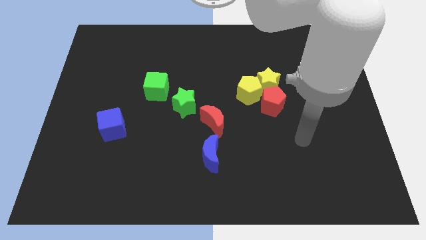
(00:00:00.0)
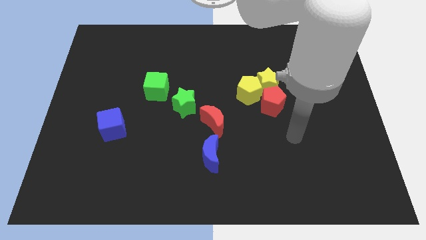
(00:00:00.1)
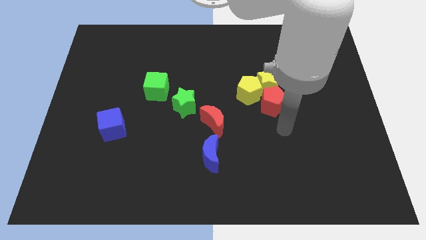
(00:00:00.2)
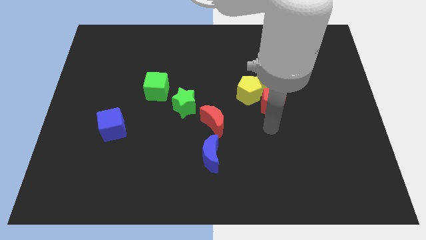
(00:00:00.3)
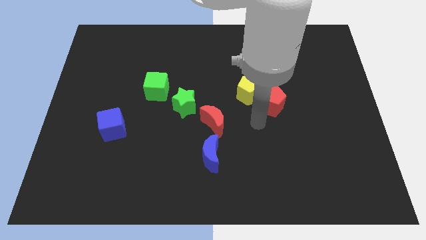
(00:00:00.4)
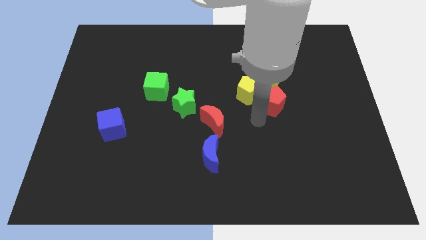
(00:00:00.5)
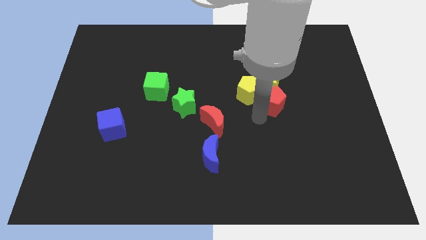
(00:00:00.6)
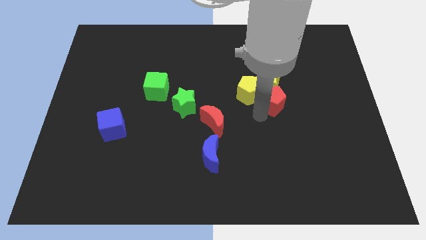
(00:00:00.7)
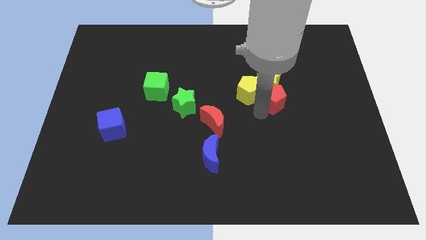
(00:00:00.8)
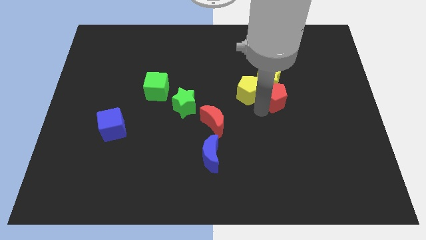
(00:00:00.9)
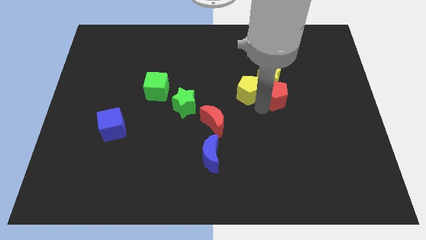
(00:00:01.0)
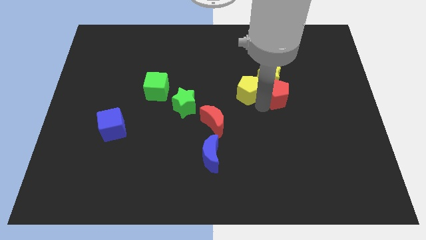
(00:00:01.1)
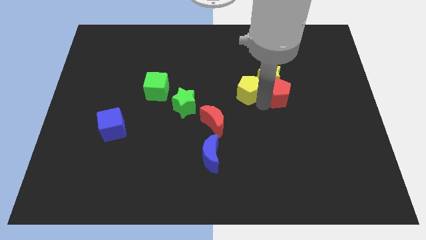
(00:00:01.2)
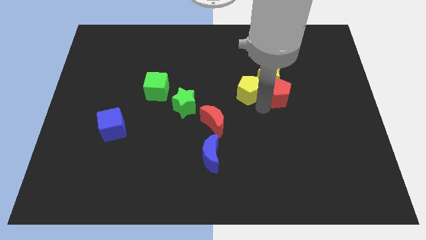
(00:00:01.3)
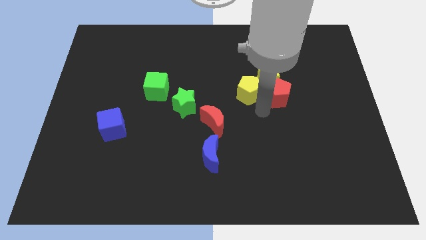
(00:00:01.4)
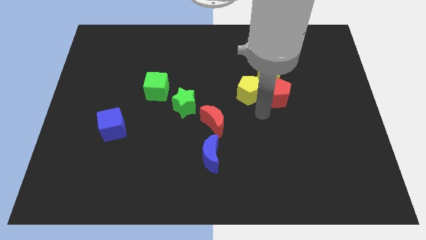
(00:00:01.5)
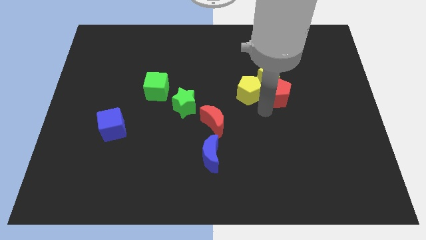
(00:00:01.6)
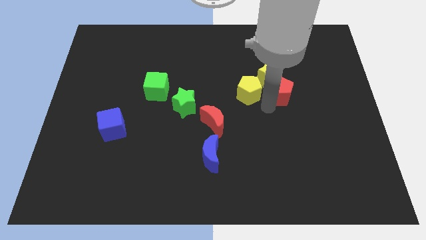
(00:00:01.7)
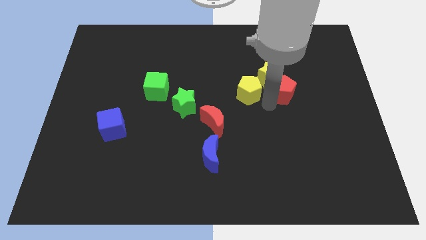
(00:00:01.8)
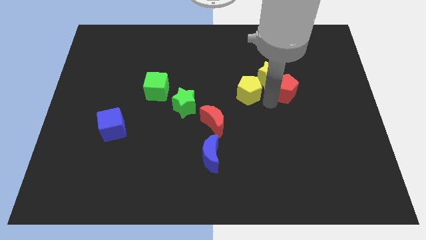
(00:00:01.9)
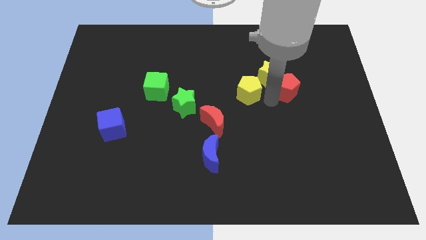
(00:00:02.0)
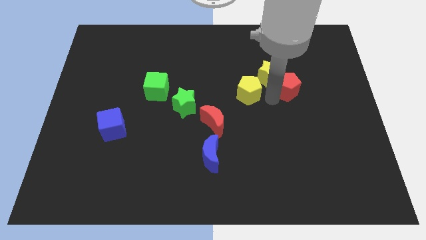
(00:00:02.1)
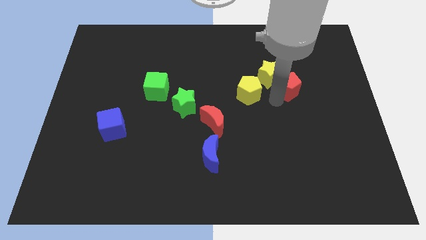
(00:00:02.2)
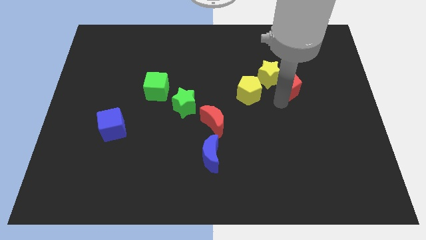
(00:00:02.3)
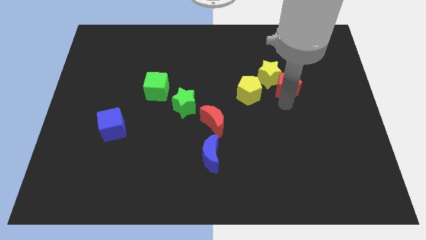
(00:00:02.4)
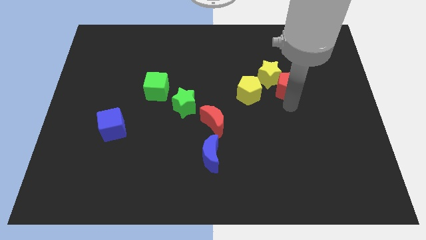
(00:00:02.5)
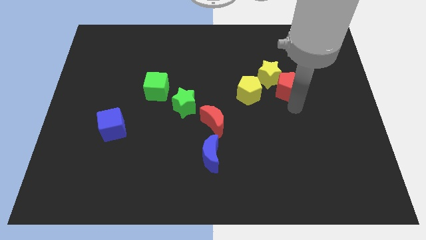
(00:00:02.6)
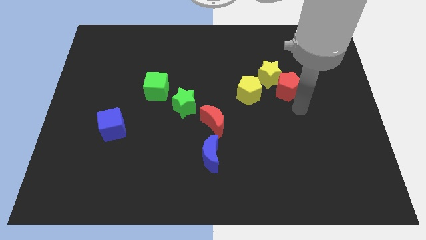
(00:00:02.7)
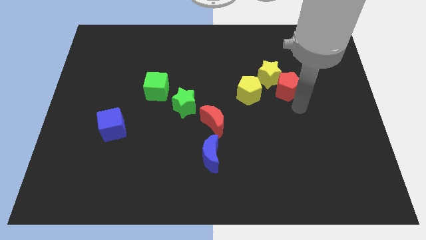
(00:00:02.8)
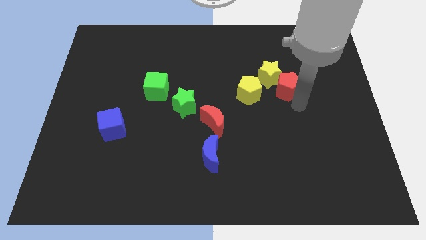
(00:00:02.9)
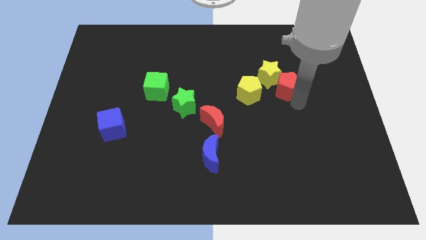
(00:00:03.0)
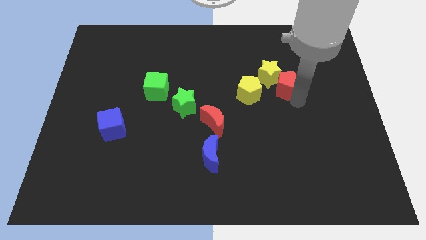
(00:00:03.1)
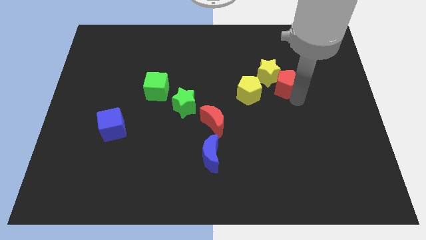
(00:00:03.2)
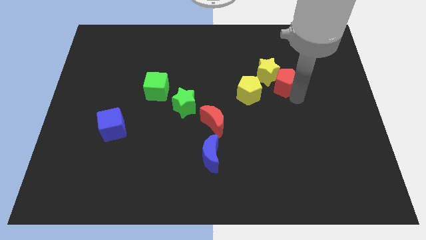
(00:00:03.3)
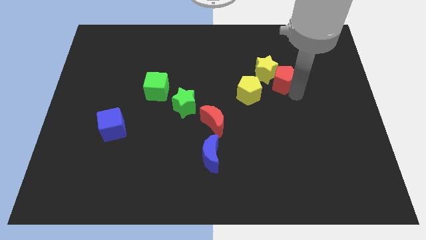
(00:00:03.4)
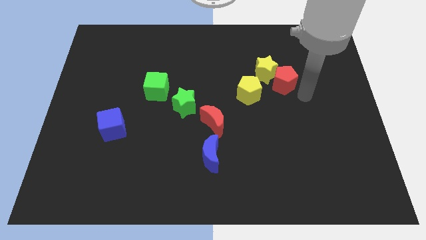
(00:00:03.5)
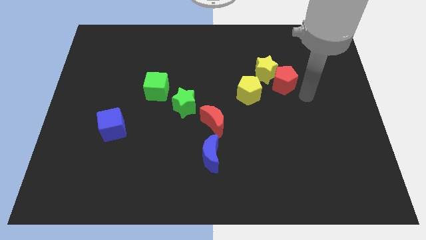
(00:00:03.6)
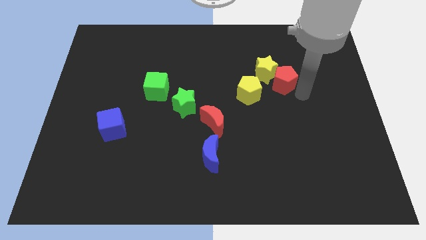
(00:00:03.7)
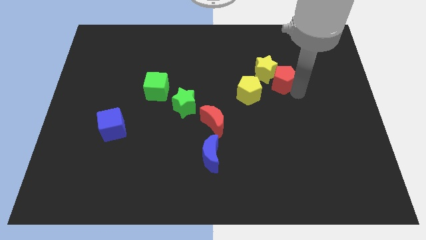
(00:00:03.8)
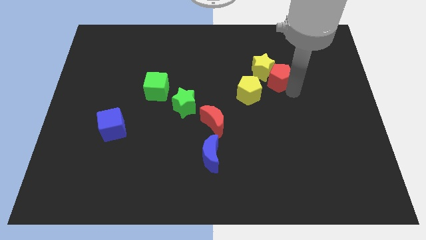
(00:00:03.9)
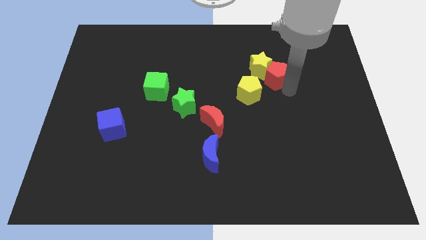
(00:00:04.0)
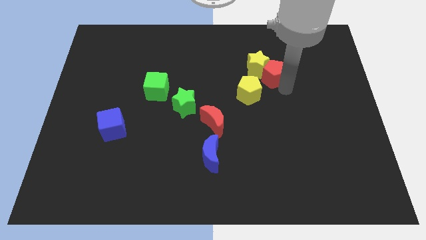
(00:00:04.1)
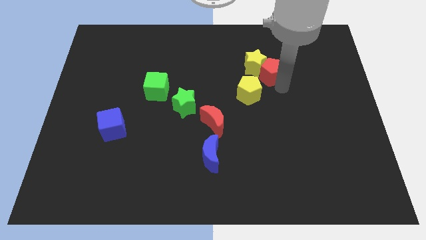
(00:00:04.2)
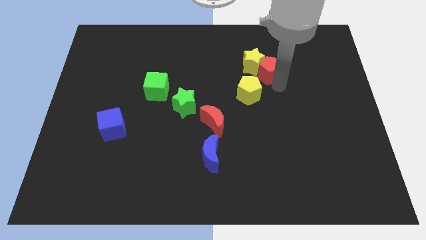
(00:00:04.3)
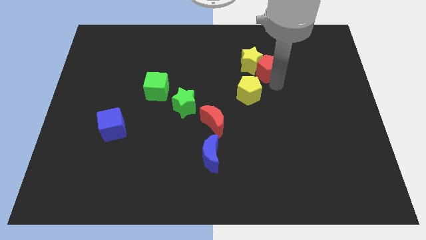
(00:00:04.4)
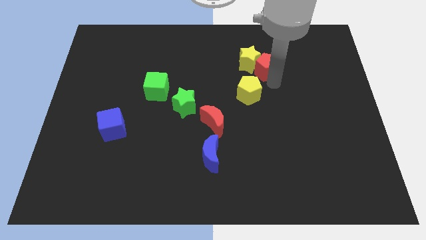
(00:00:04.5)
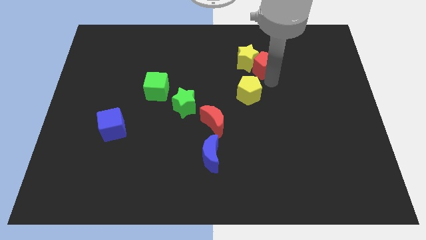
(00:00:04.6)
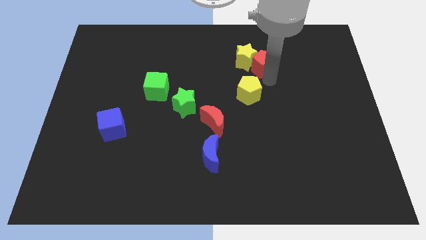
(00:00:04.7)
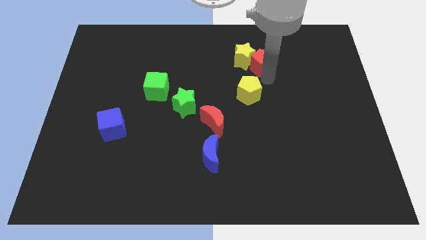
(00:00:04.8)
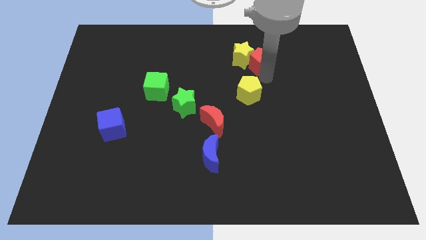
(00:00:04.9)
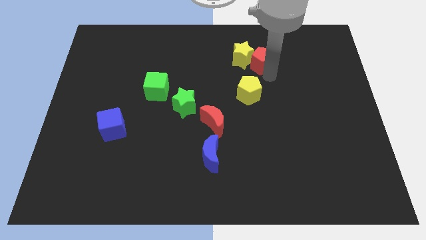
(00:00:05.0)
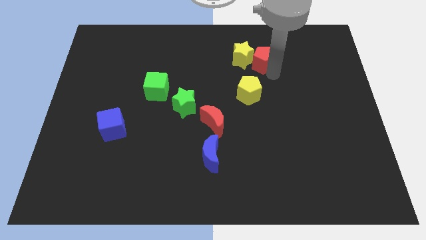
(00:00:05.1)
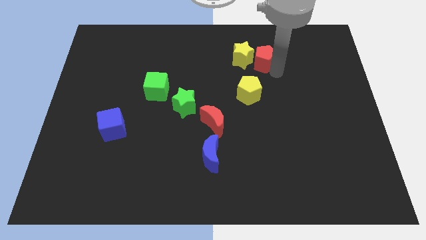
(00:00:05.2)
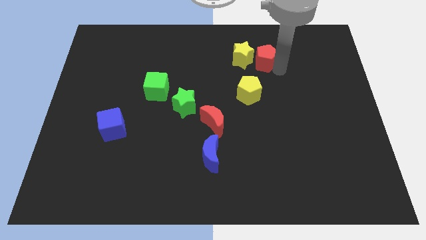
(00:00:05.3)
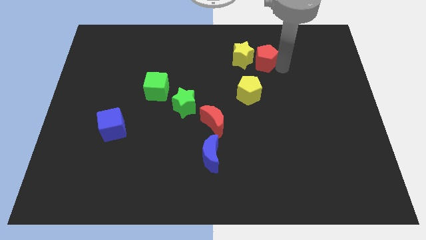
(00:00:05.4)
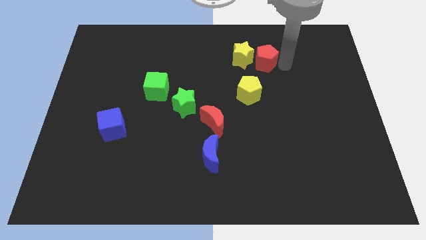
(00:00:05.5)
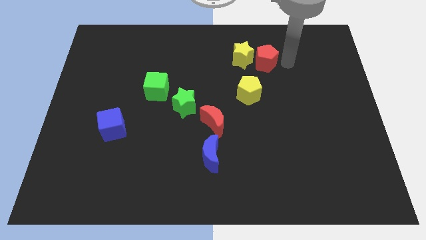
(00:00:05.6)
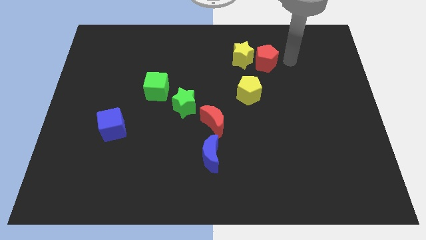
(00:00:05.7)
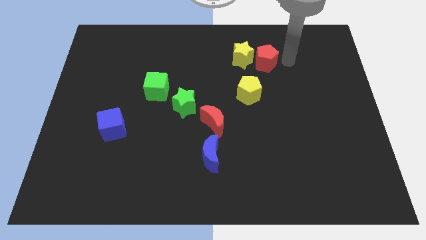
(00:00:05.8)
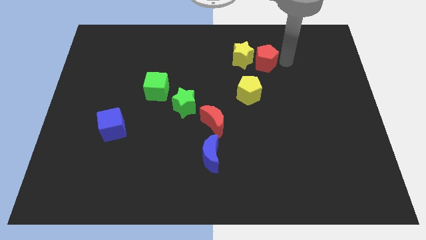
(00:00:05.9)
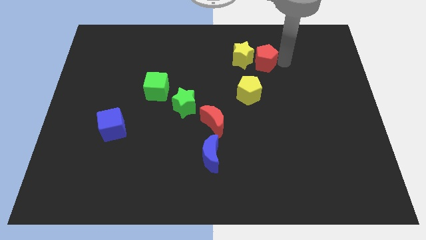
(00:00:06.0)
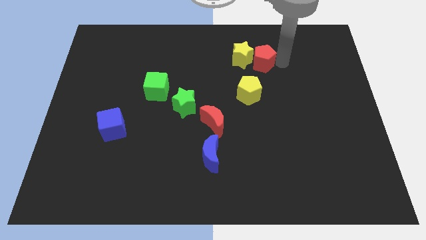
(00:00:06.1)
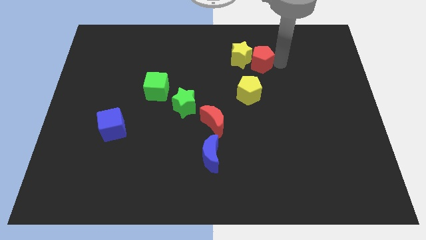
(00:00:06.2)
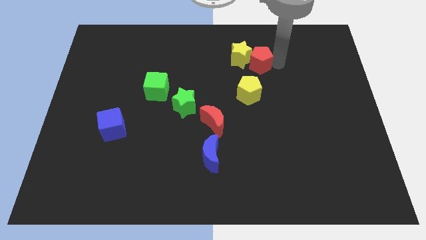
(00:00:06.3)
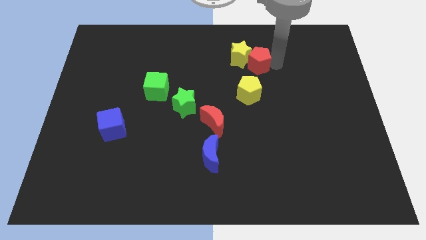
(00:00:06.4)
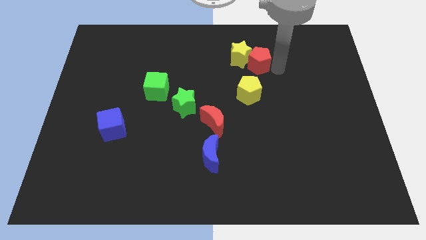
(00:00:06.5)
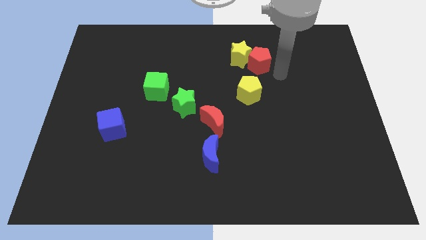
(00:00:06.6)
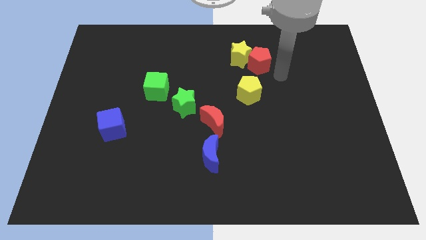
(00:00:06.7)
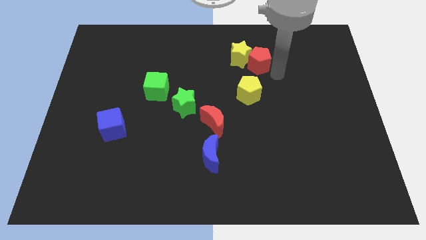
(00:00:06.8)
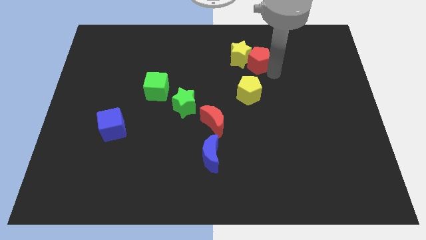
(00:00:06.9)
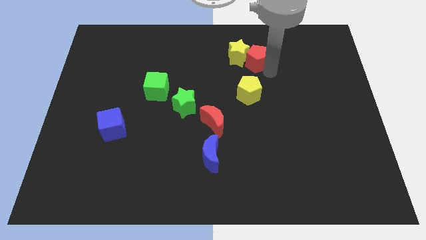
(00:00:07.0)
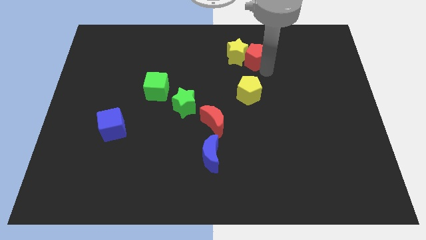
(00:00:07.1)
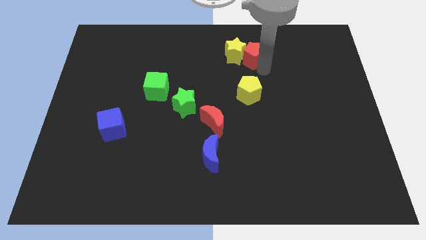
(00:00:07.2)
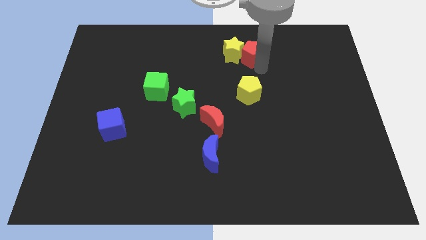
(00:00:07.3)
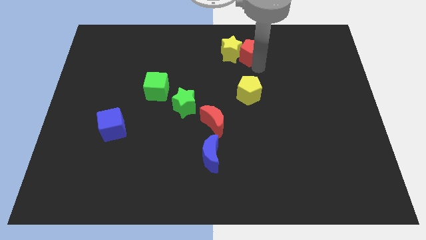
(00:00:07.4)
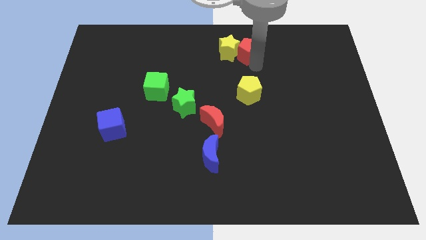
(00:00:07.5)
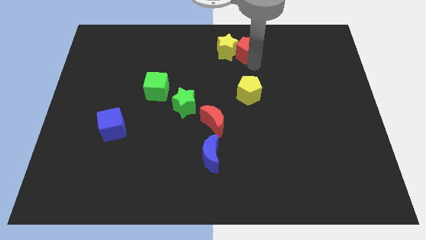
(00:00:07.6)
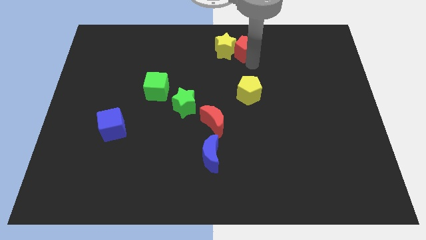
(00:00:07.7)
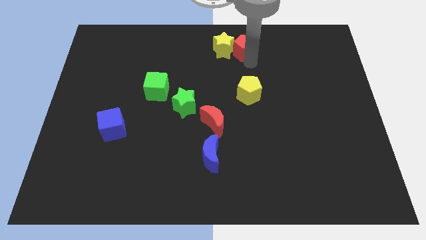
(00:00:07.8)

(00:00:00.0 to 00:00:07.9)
put the red pentagon to the top side
